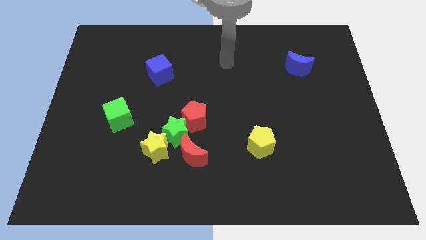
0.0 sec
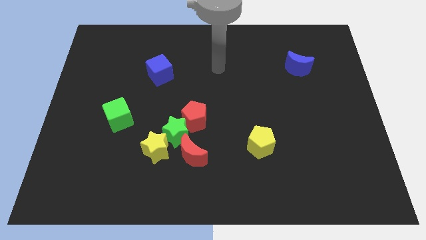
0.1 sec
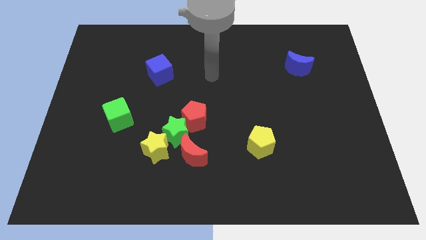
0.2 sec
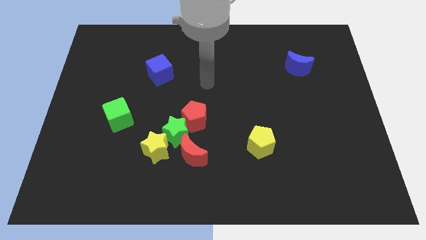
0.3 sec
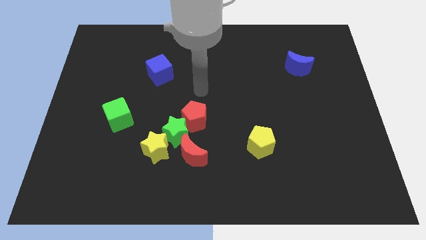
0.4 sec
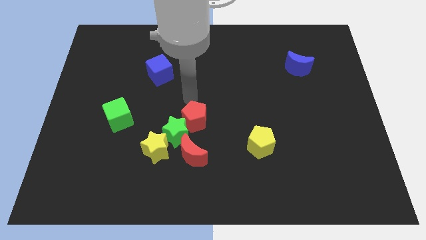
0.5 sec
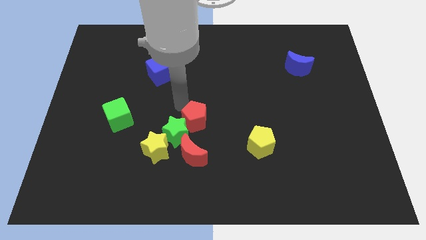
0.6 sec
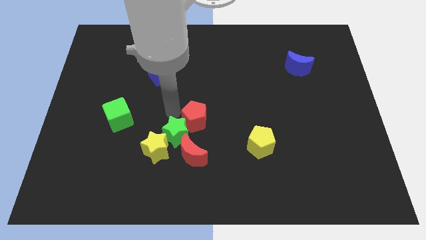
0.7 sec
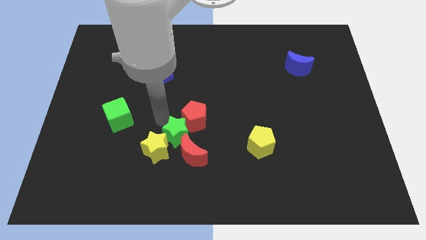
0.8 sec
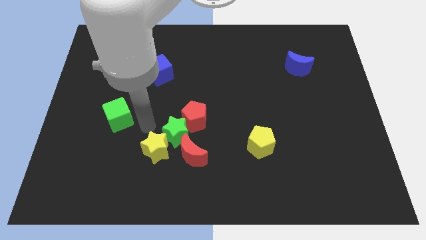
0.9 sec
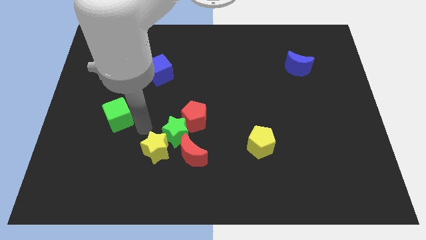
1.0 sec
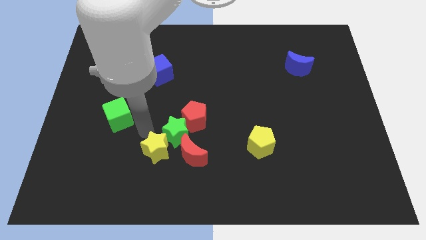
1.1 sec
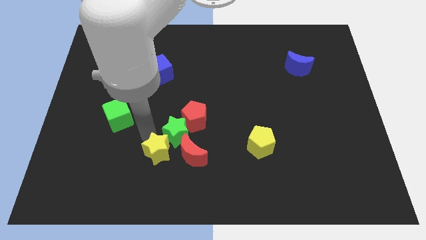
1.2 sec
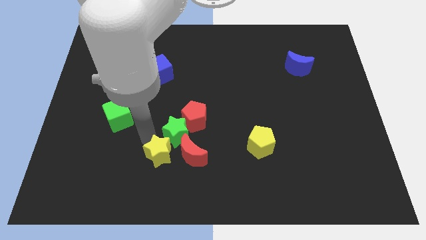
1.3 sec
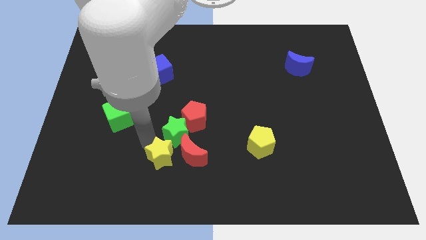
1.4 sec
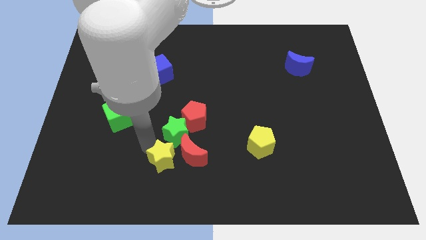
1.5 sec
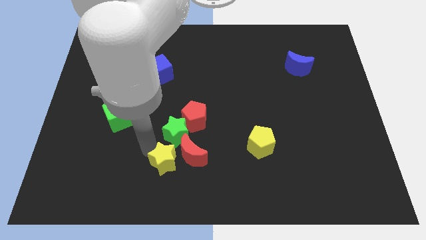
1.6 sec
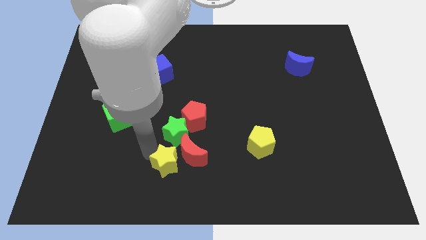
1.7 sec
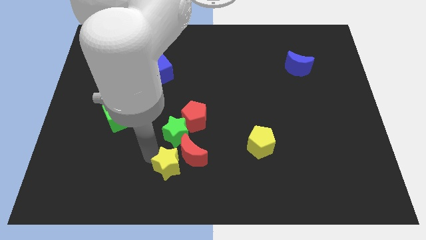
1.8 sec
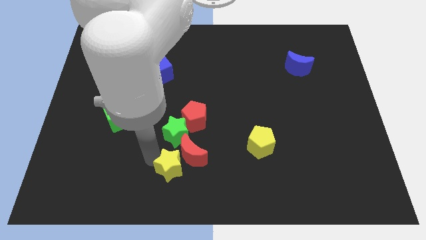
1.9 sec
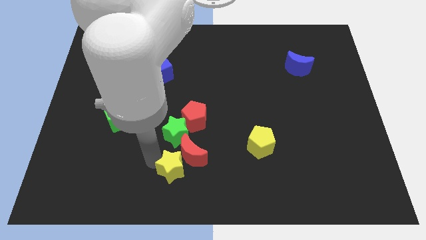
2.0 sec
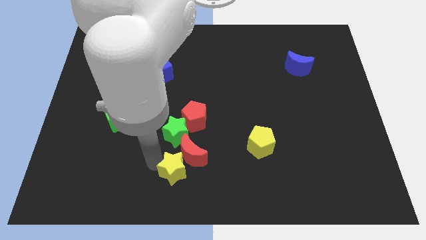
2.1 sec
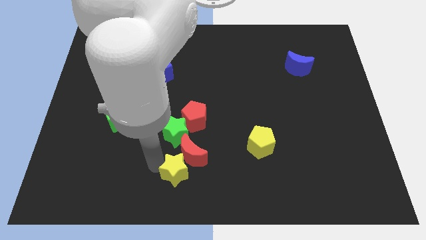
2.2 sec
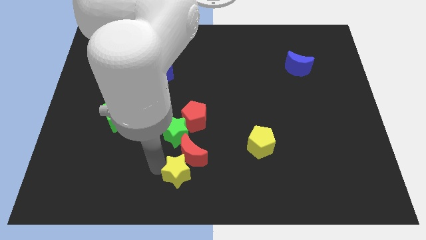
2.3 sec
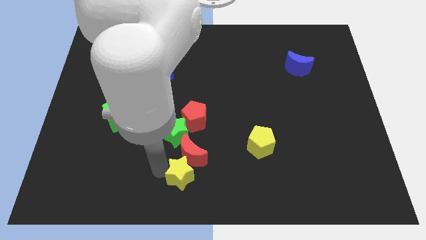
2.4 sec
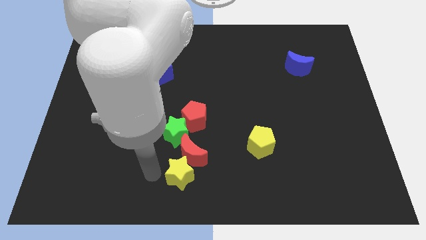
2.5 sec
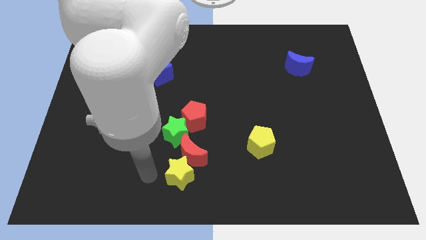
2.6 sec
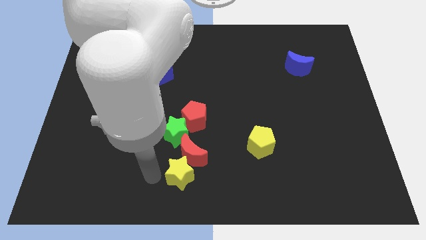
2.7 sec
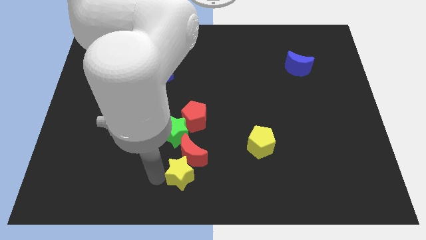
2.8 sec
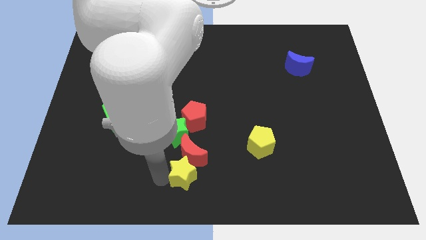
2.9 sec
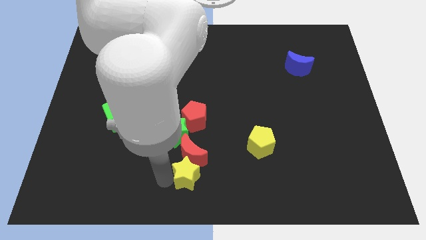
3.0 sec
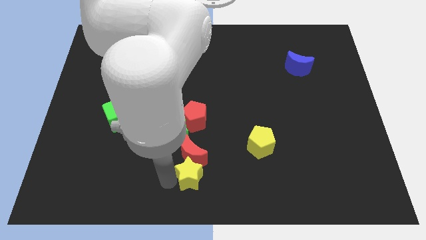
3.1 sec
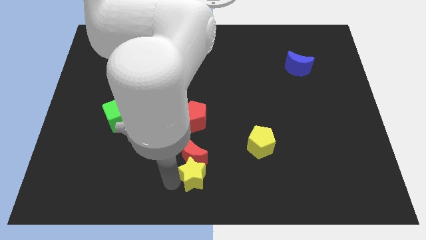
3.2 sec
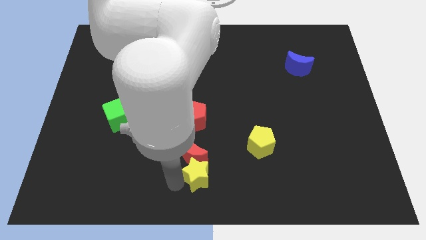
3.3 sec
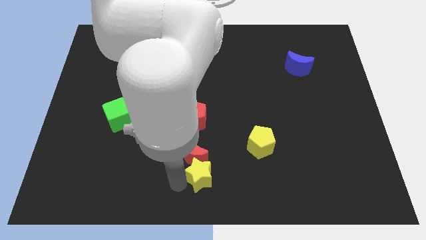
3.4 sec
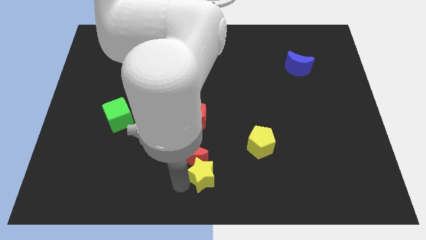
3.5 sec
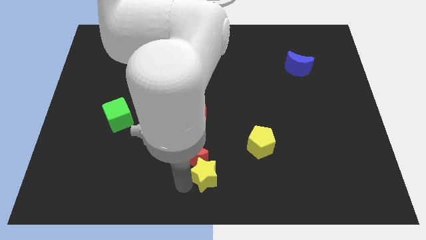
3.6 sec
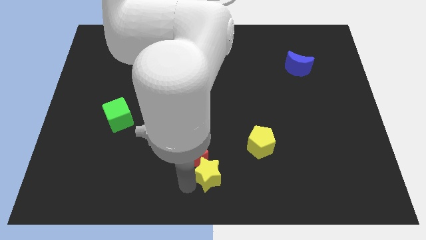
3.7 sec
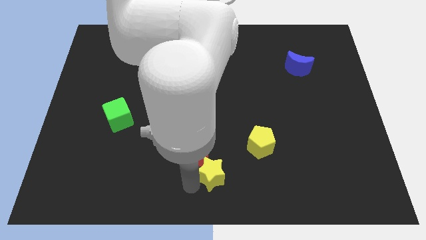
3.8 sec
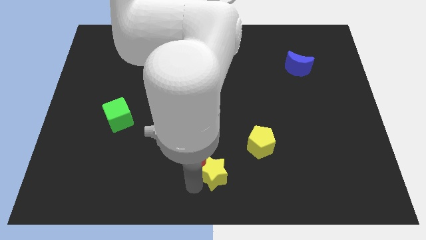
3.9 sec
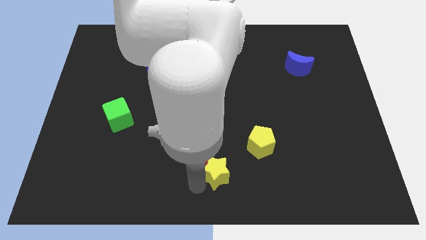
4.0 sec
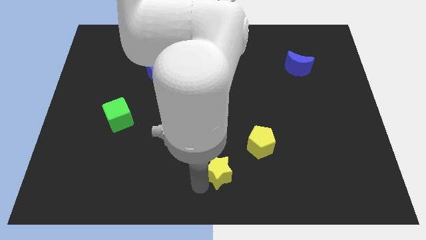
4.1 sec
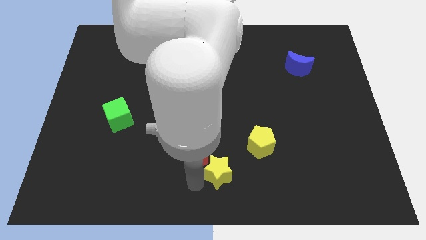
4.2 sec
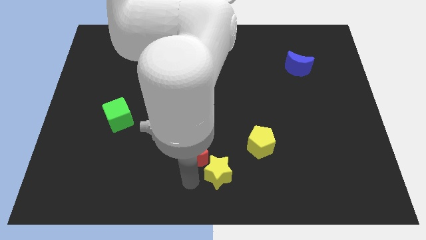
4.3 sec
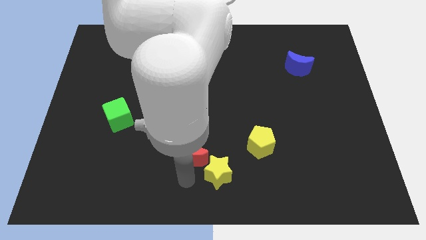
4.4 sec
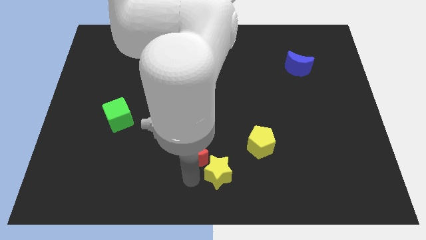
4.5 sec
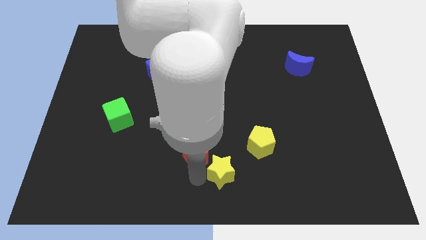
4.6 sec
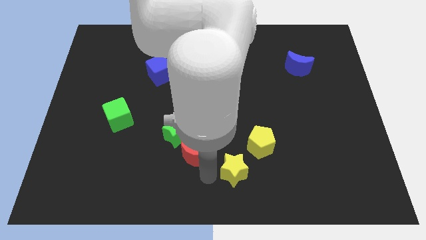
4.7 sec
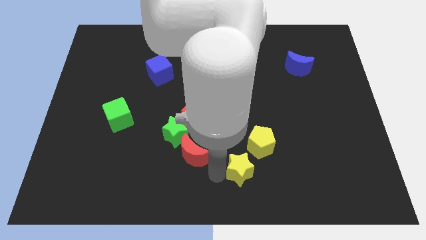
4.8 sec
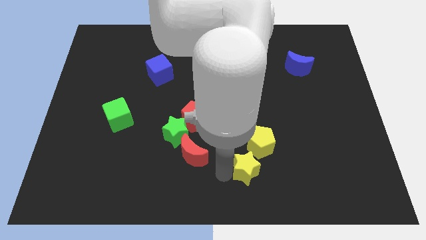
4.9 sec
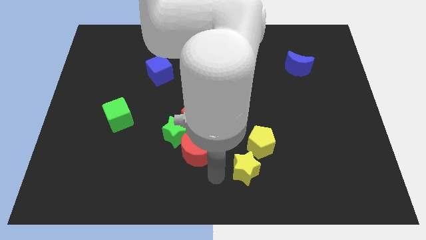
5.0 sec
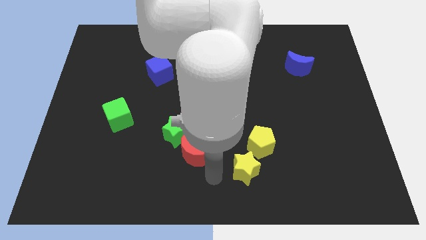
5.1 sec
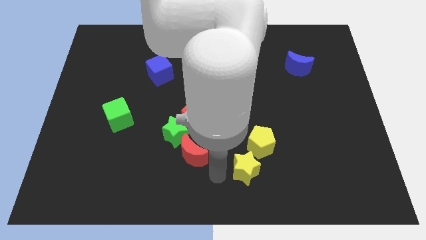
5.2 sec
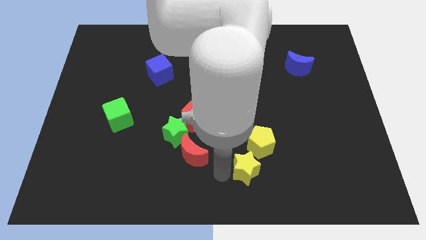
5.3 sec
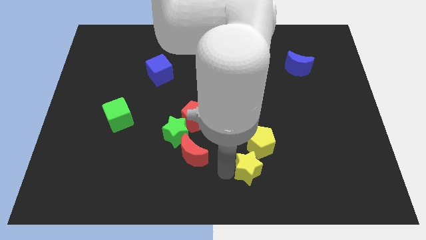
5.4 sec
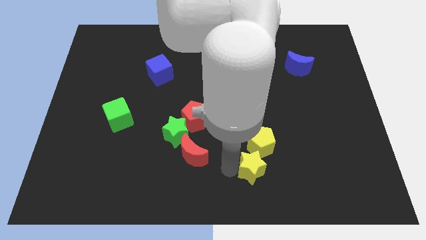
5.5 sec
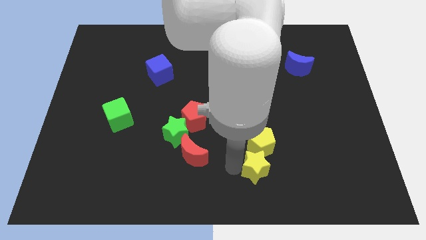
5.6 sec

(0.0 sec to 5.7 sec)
push the yellow star right

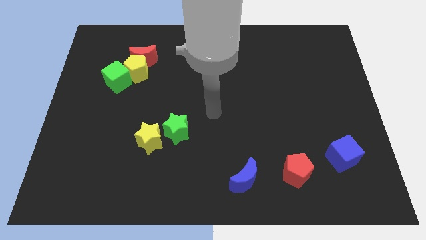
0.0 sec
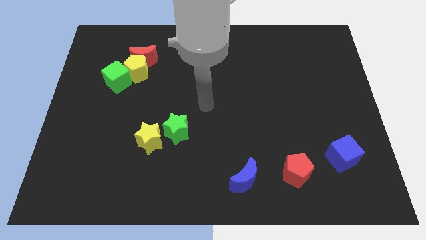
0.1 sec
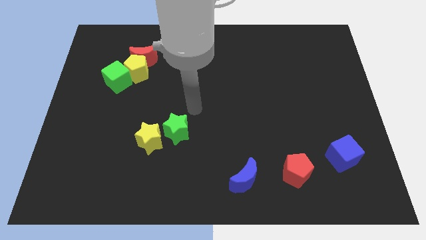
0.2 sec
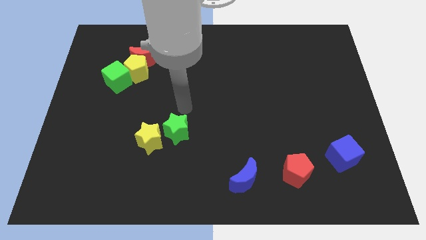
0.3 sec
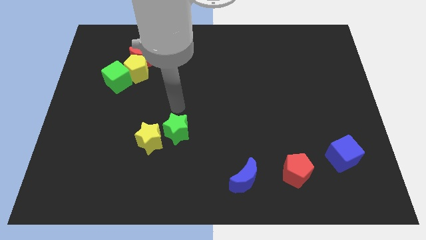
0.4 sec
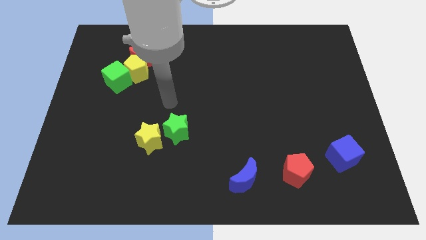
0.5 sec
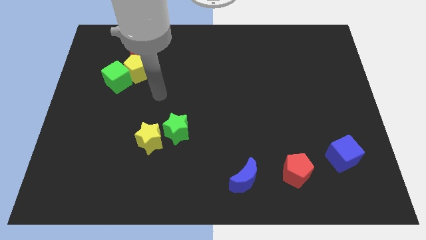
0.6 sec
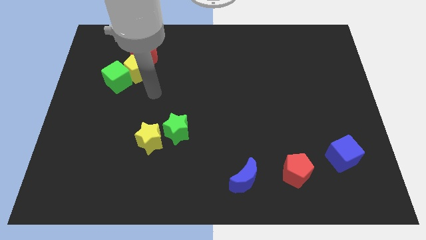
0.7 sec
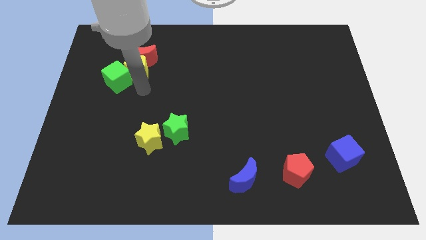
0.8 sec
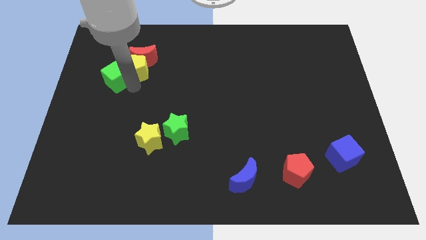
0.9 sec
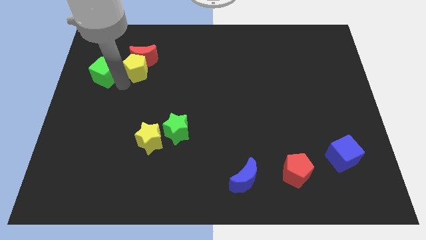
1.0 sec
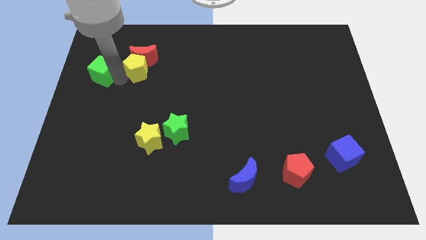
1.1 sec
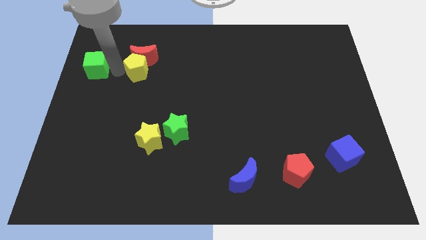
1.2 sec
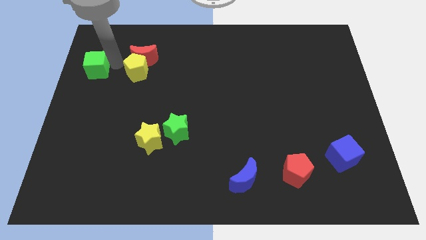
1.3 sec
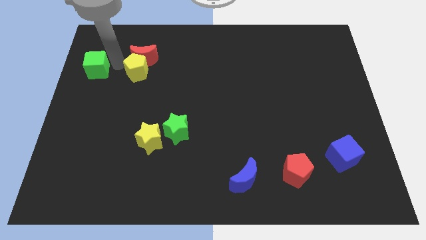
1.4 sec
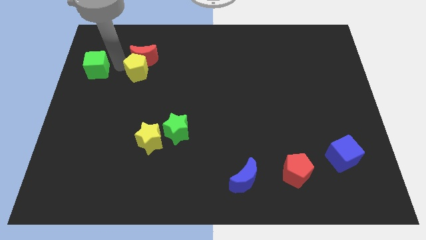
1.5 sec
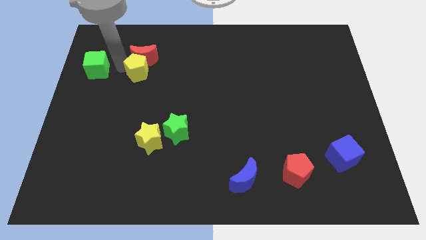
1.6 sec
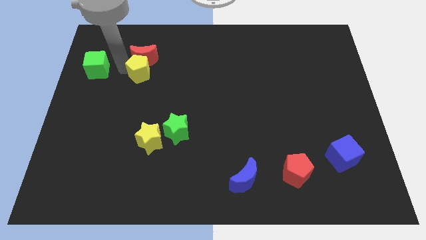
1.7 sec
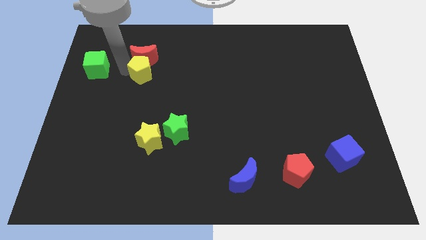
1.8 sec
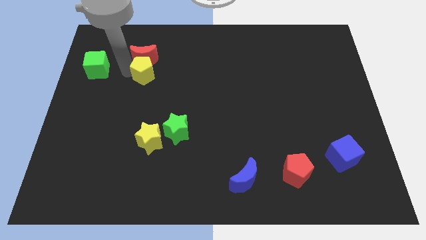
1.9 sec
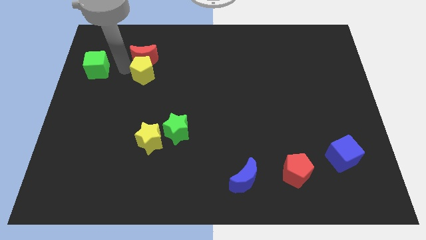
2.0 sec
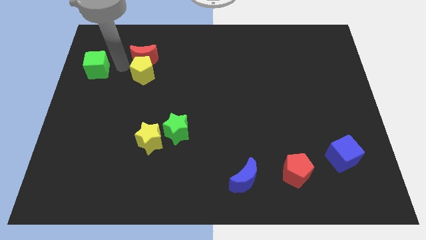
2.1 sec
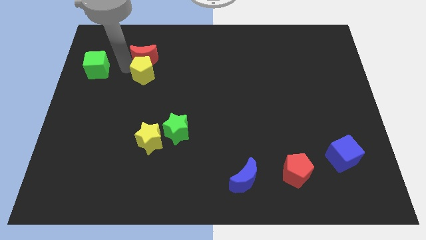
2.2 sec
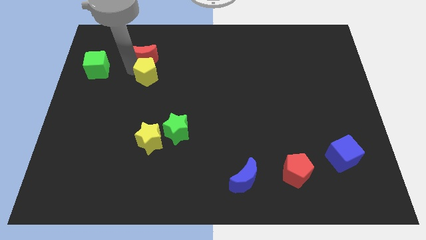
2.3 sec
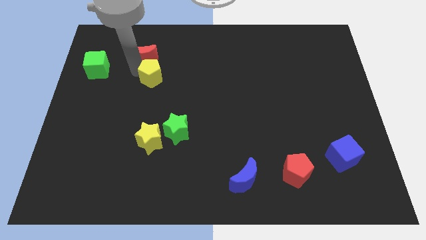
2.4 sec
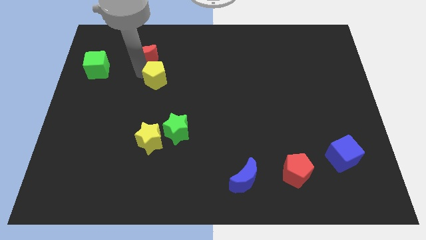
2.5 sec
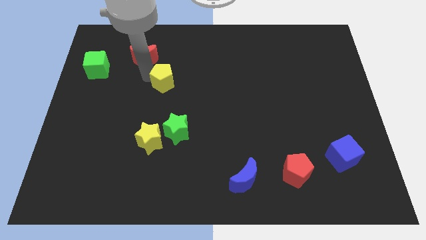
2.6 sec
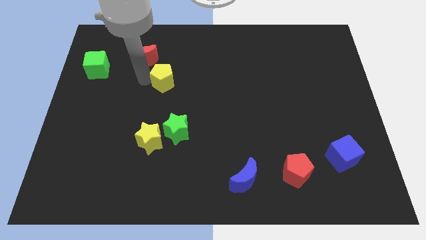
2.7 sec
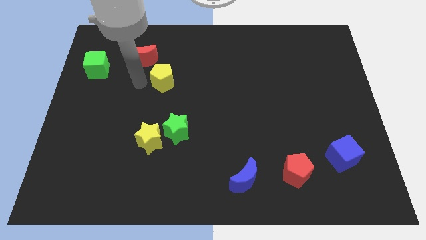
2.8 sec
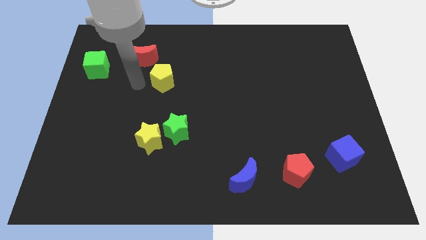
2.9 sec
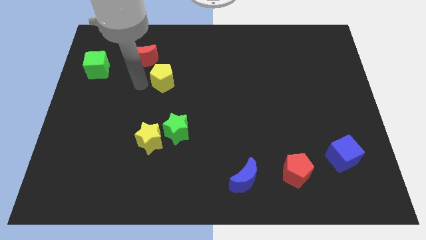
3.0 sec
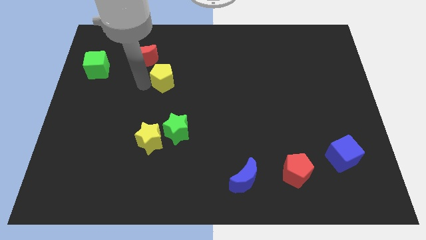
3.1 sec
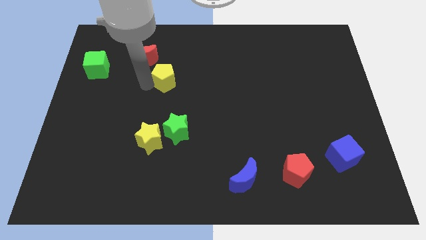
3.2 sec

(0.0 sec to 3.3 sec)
slide the yellow pentagon to the right a little
